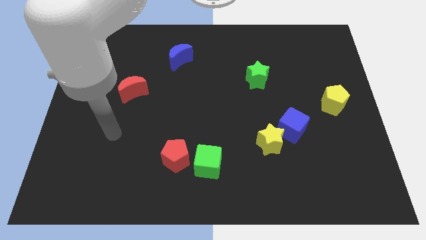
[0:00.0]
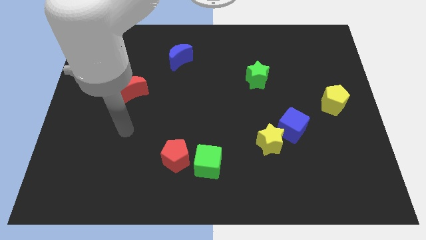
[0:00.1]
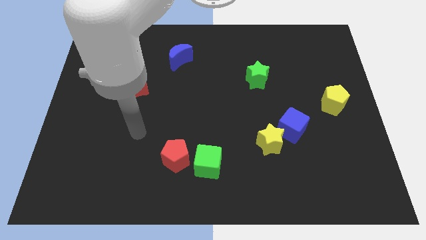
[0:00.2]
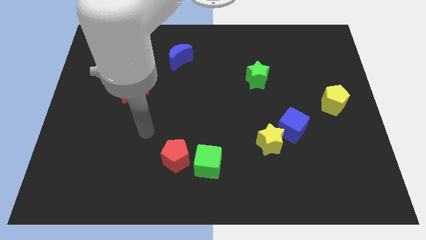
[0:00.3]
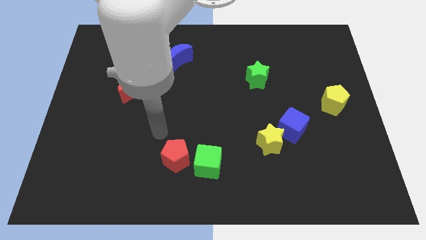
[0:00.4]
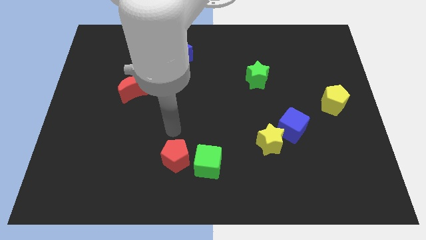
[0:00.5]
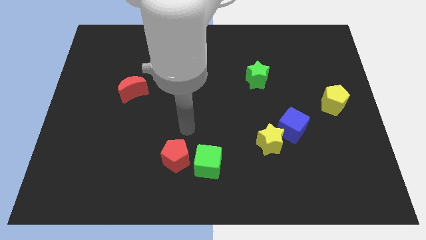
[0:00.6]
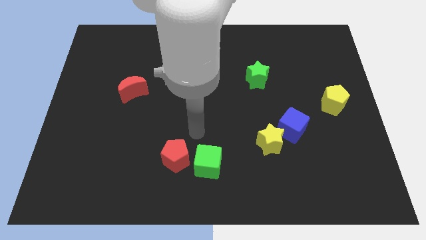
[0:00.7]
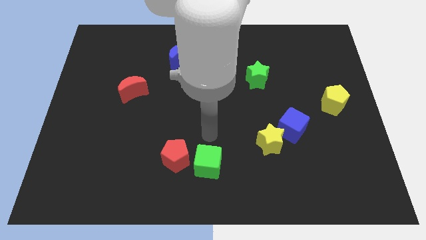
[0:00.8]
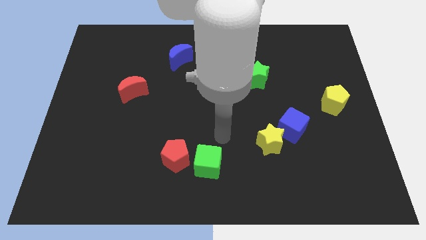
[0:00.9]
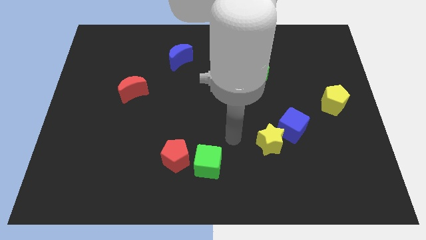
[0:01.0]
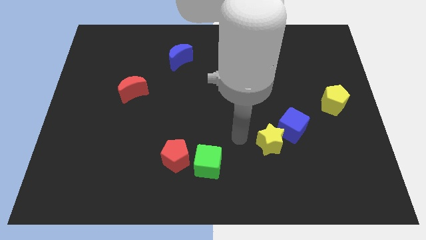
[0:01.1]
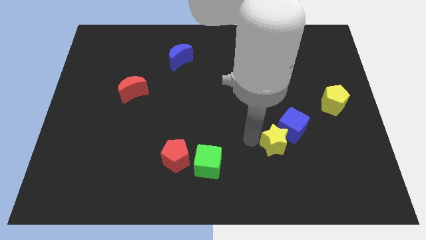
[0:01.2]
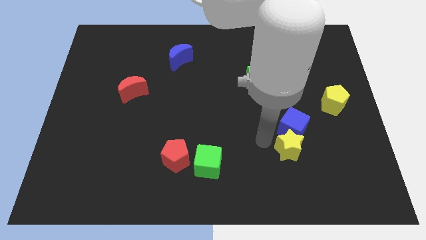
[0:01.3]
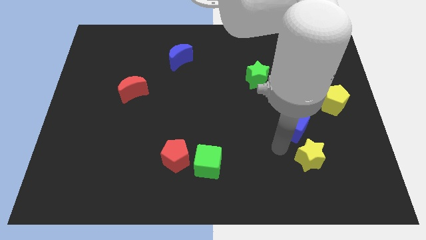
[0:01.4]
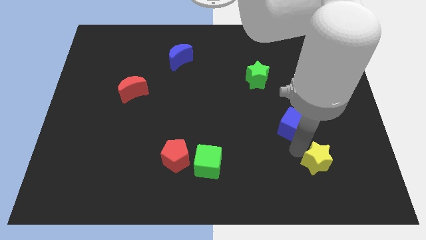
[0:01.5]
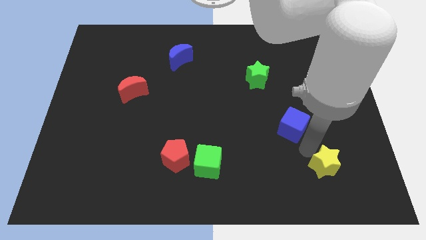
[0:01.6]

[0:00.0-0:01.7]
move the blue cube away from the yellow star

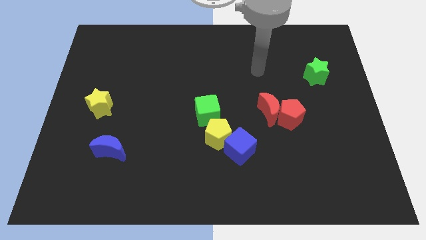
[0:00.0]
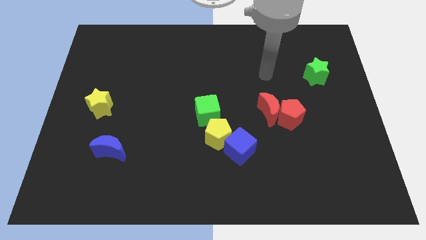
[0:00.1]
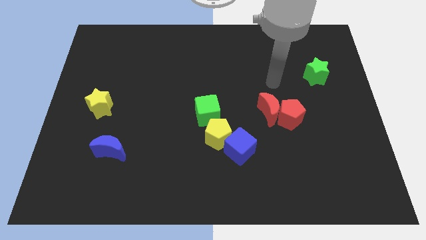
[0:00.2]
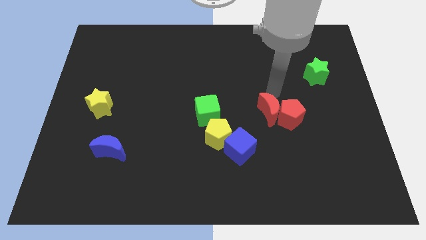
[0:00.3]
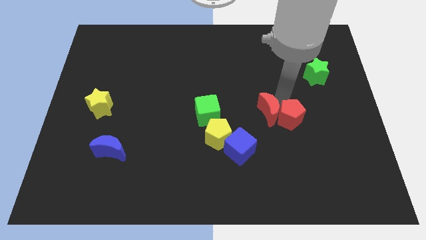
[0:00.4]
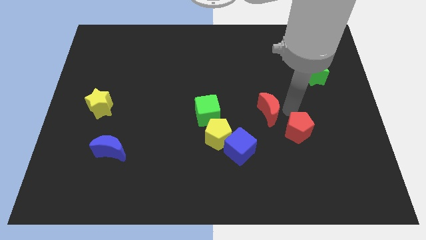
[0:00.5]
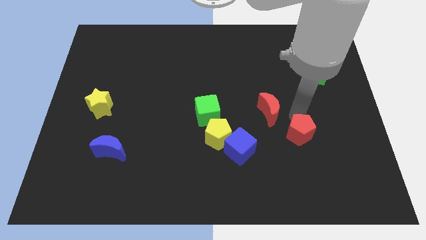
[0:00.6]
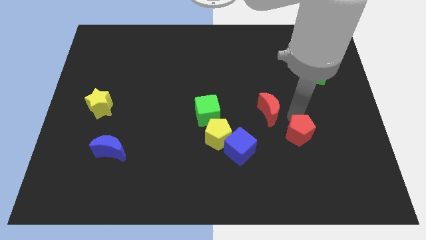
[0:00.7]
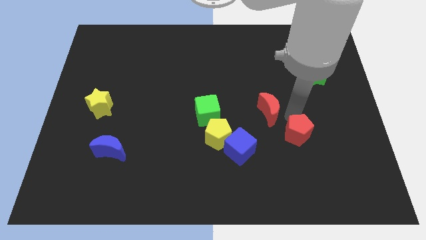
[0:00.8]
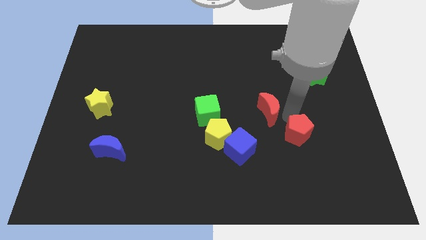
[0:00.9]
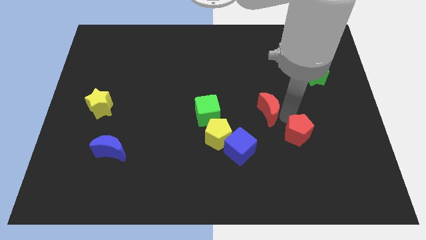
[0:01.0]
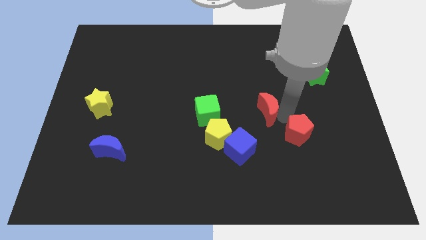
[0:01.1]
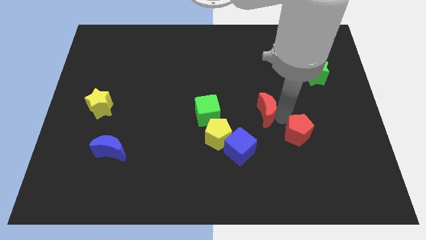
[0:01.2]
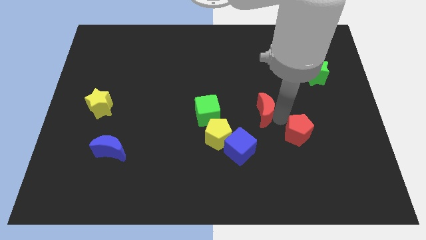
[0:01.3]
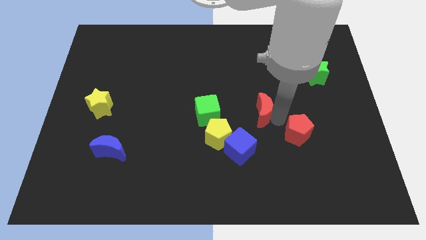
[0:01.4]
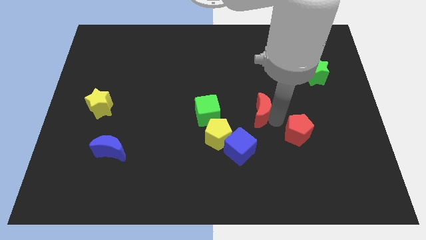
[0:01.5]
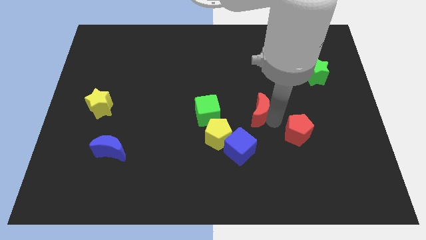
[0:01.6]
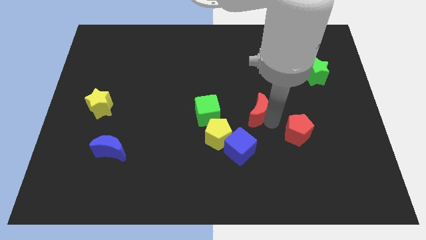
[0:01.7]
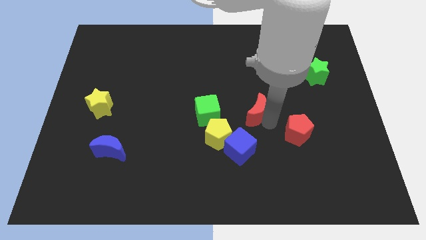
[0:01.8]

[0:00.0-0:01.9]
pull the red moon apart from the red pentagon

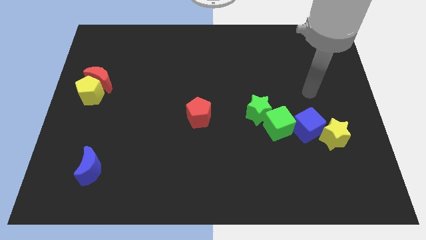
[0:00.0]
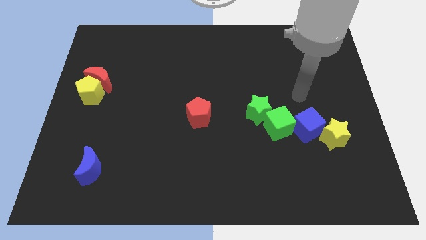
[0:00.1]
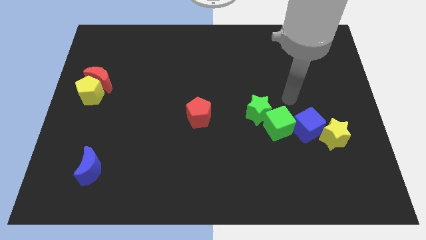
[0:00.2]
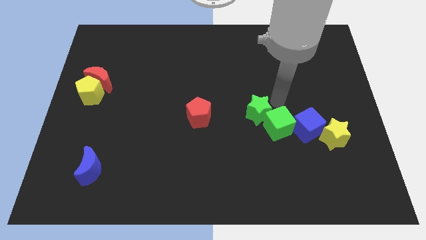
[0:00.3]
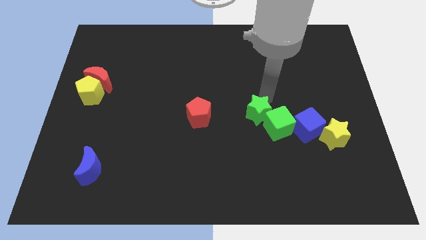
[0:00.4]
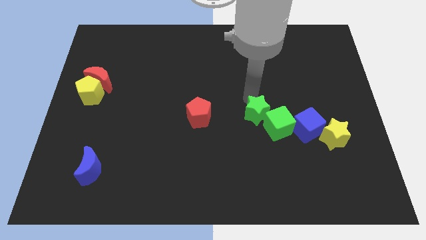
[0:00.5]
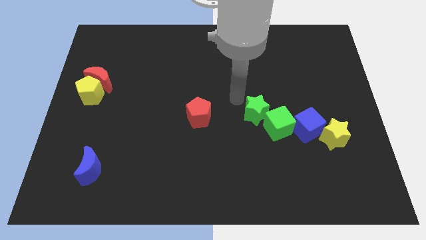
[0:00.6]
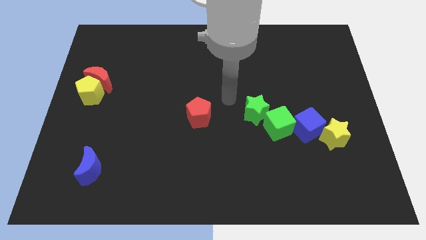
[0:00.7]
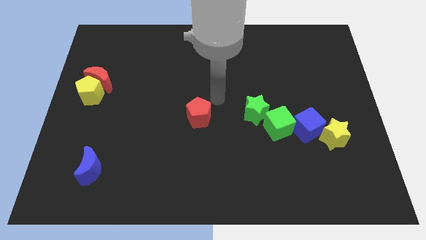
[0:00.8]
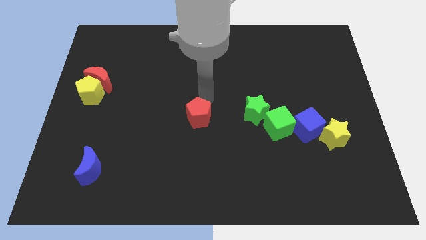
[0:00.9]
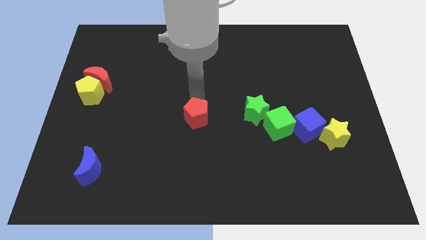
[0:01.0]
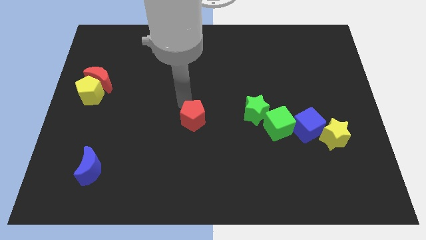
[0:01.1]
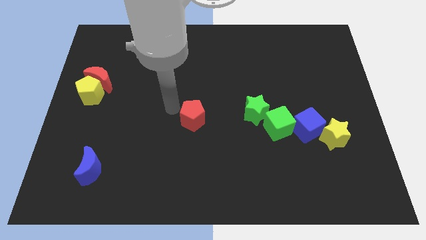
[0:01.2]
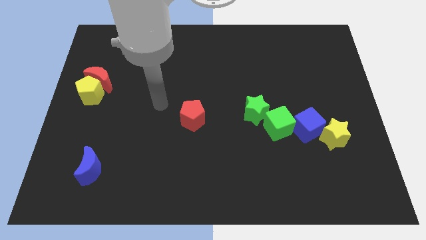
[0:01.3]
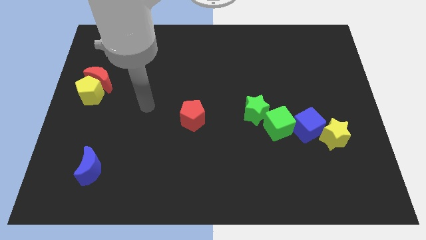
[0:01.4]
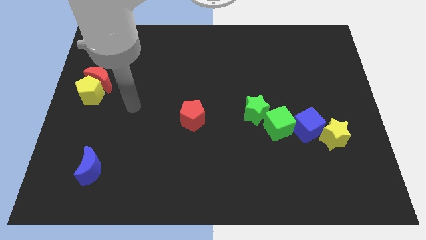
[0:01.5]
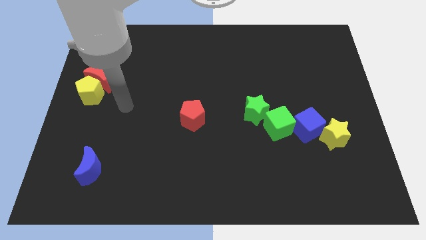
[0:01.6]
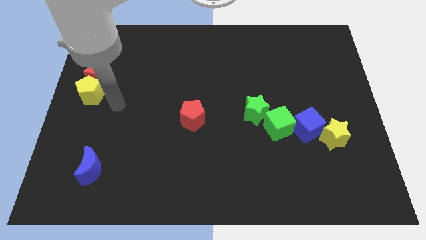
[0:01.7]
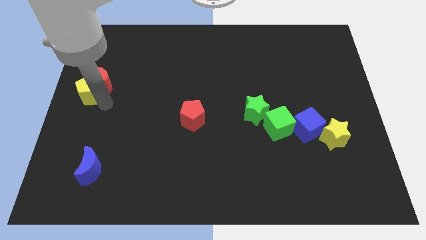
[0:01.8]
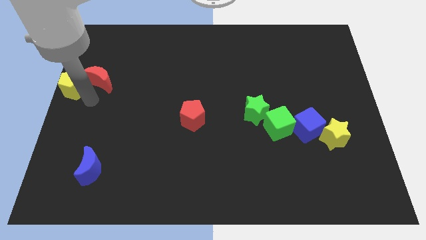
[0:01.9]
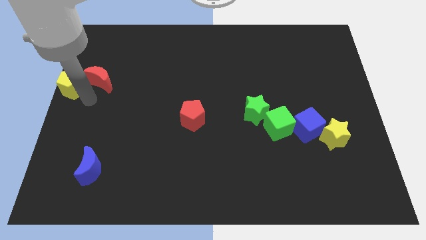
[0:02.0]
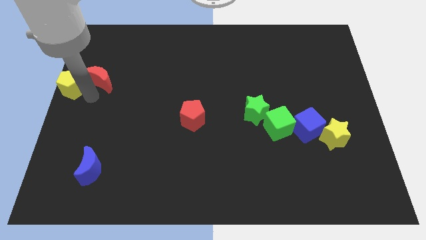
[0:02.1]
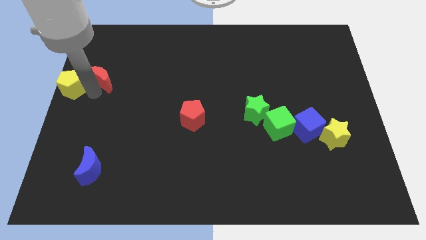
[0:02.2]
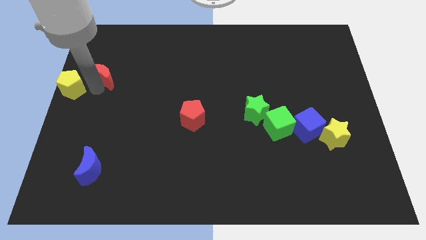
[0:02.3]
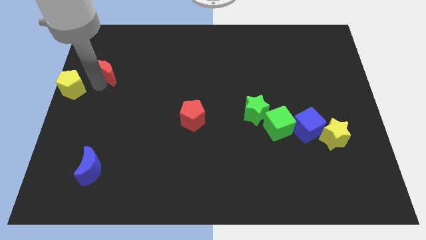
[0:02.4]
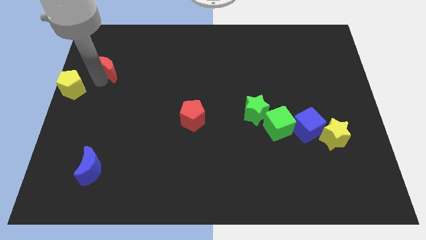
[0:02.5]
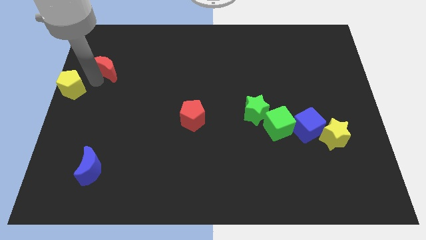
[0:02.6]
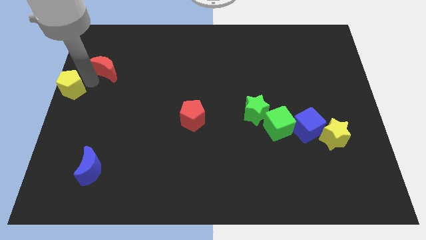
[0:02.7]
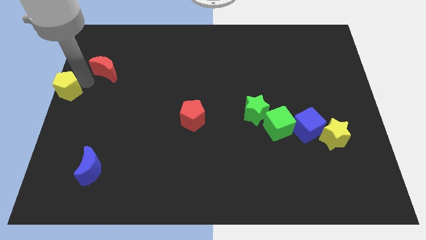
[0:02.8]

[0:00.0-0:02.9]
separate the red moon from the yellow pentagon

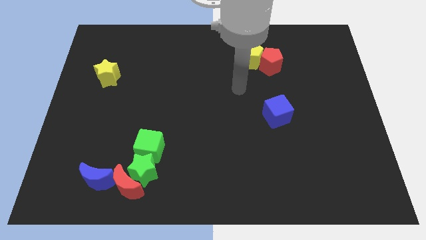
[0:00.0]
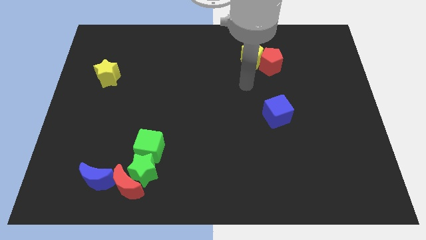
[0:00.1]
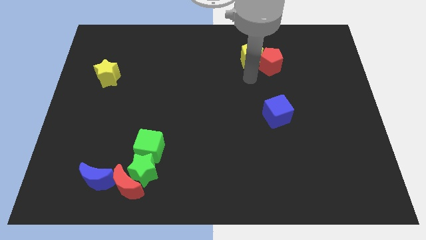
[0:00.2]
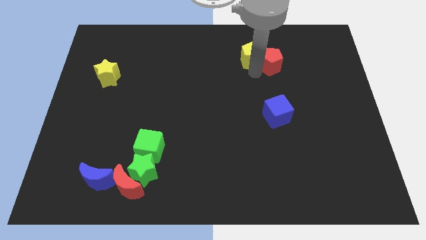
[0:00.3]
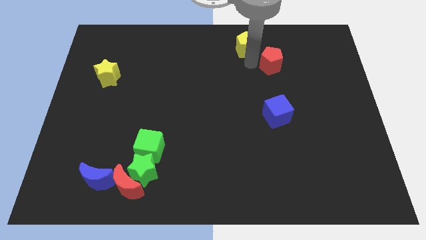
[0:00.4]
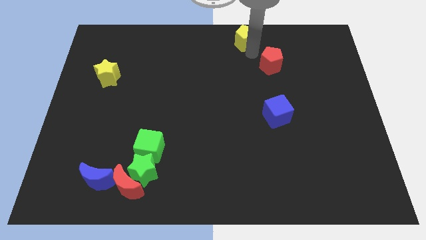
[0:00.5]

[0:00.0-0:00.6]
separate the red pentagon from the yellow pentagon

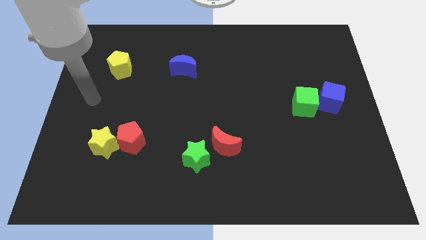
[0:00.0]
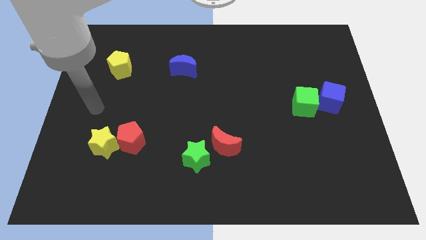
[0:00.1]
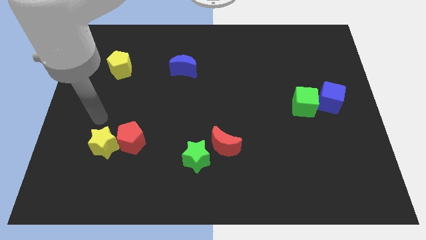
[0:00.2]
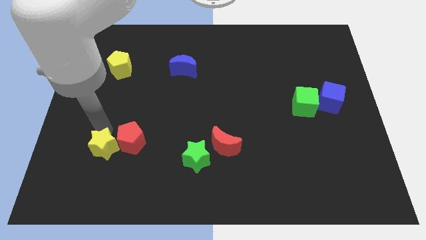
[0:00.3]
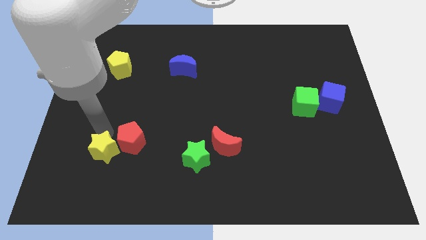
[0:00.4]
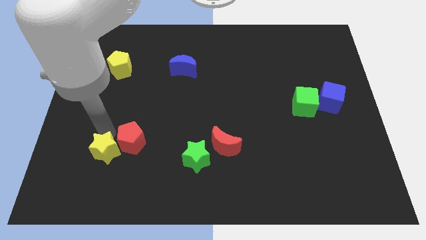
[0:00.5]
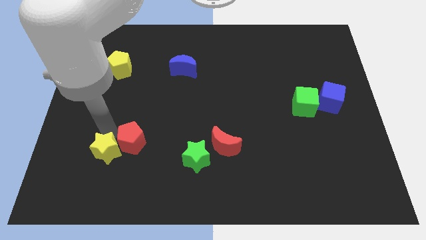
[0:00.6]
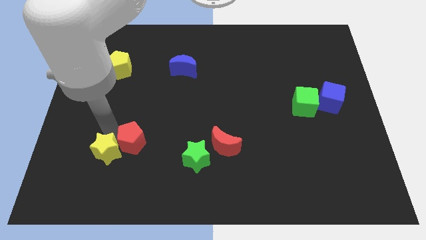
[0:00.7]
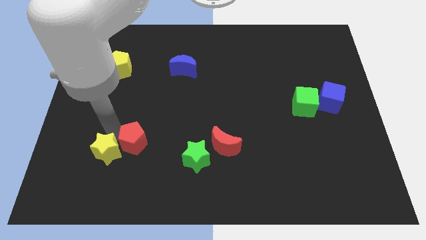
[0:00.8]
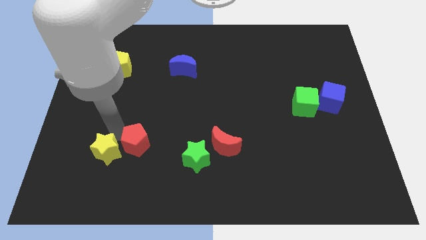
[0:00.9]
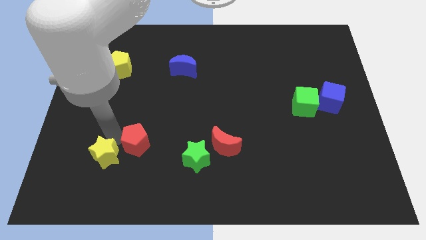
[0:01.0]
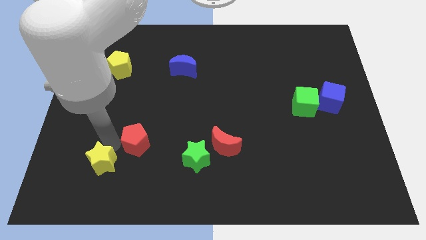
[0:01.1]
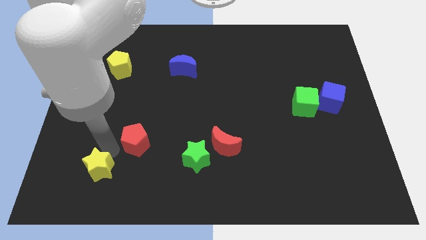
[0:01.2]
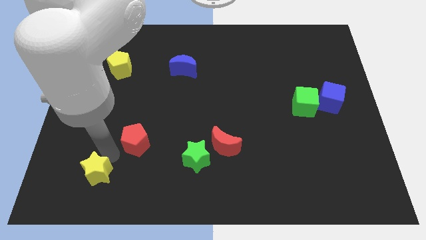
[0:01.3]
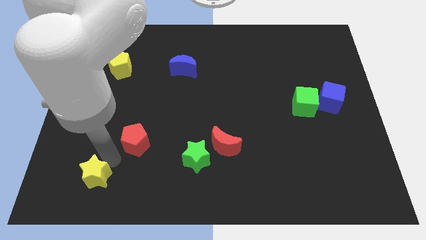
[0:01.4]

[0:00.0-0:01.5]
pull the red pentagon apart from the yellow star

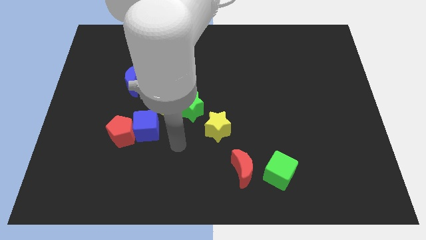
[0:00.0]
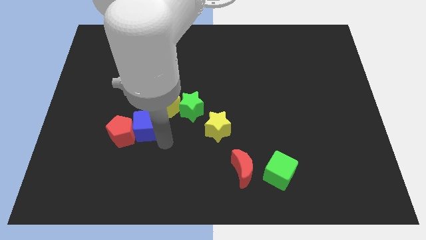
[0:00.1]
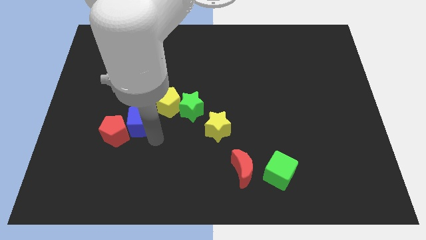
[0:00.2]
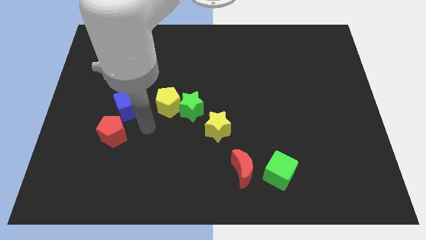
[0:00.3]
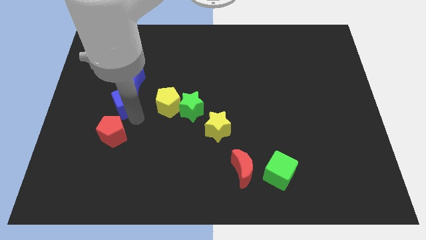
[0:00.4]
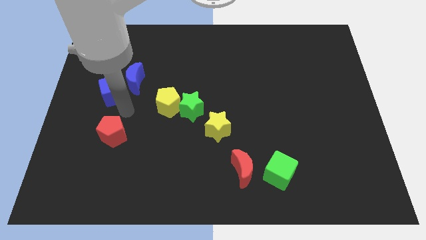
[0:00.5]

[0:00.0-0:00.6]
move the red pentagon away from the blue cube
